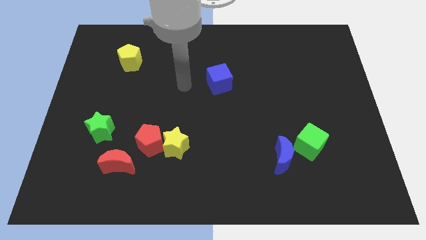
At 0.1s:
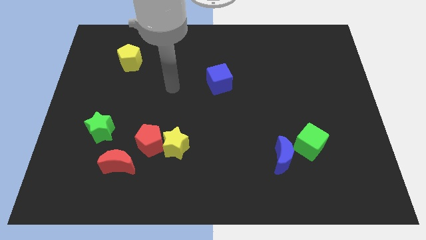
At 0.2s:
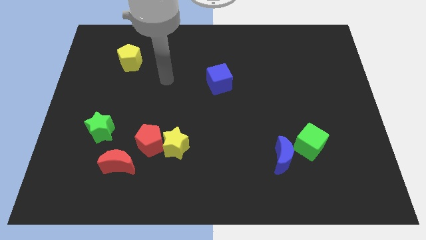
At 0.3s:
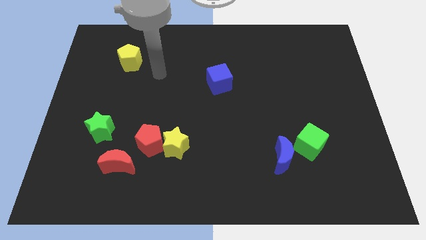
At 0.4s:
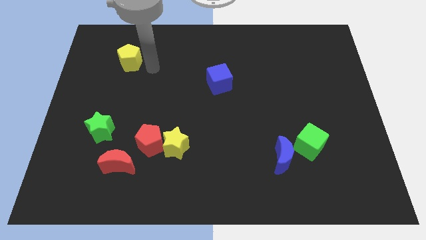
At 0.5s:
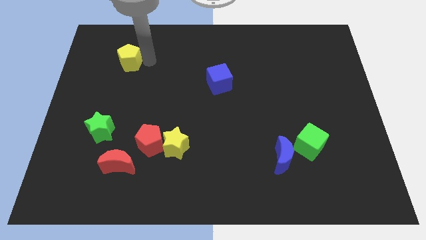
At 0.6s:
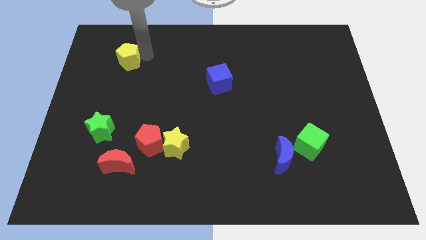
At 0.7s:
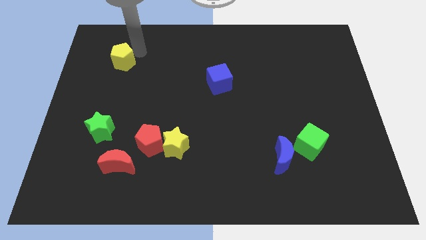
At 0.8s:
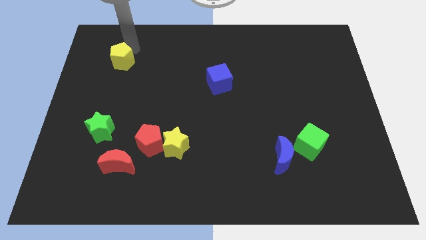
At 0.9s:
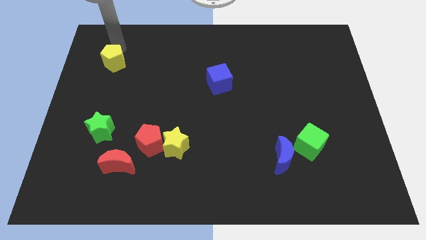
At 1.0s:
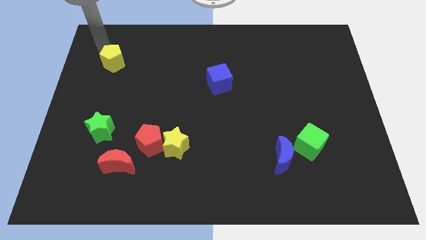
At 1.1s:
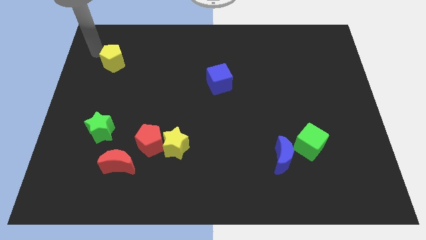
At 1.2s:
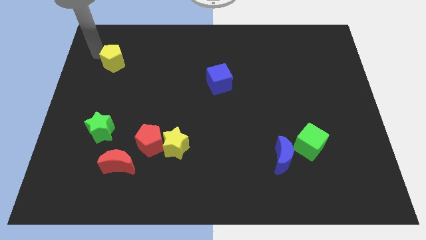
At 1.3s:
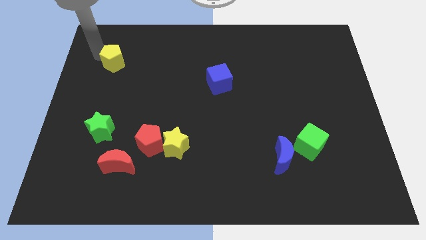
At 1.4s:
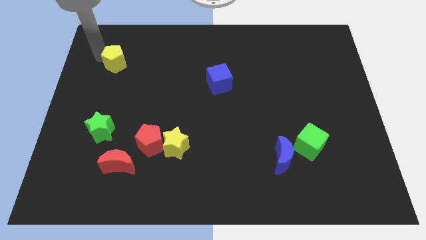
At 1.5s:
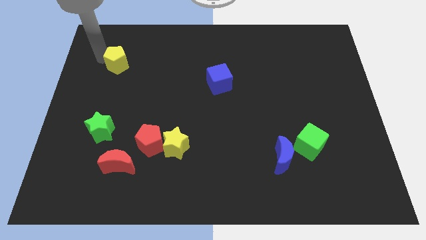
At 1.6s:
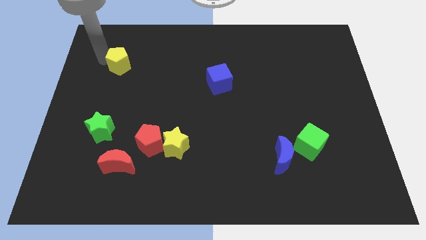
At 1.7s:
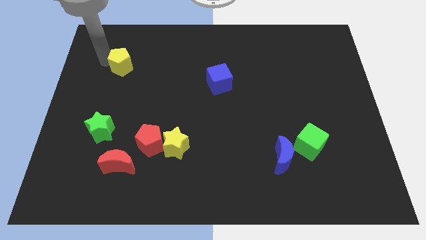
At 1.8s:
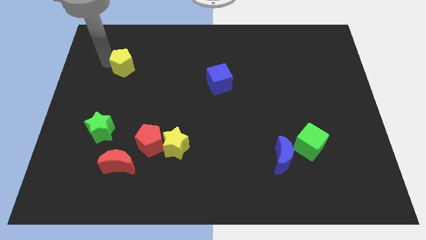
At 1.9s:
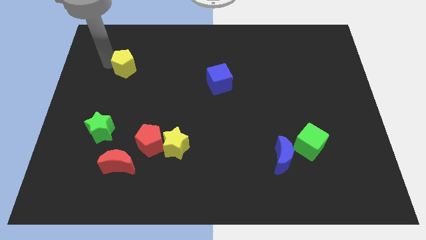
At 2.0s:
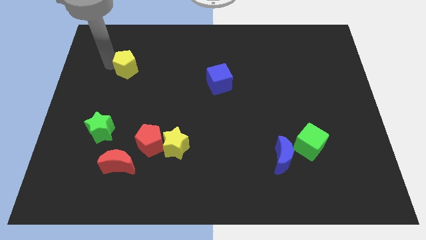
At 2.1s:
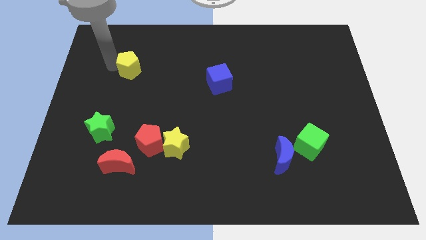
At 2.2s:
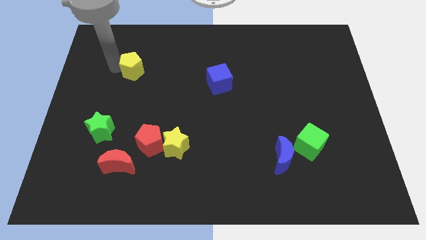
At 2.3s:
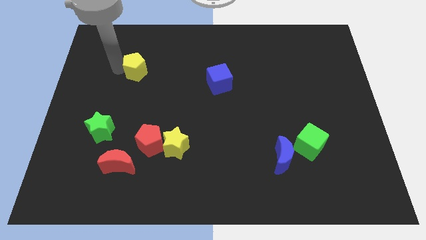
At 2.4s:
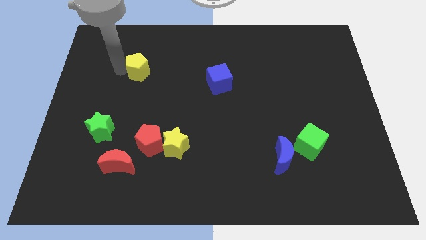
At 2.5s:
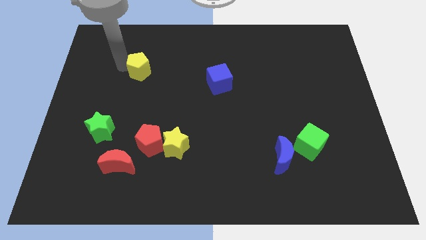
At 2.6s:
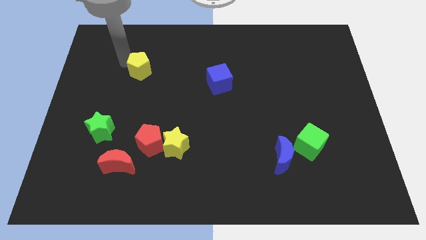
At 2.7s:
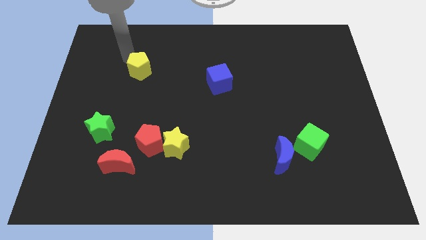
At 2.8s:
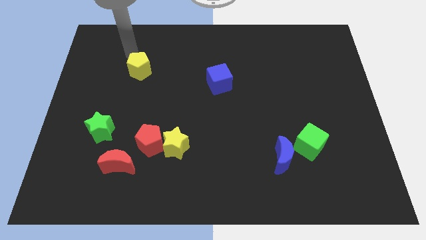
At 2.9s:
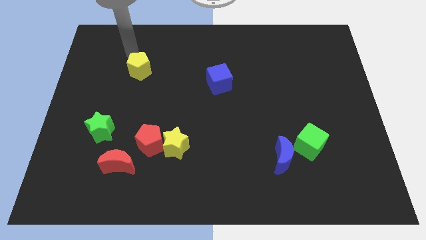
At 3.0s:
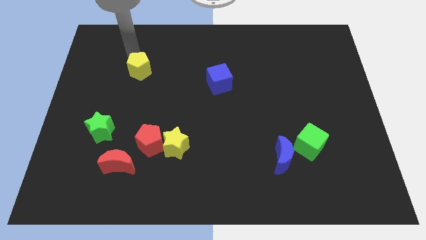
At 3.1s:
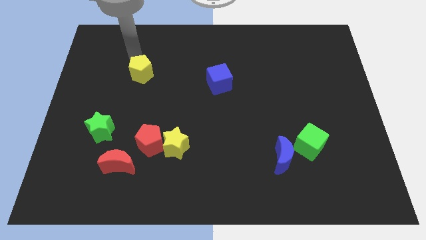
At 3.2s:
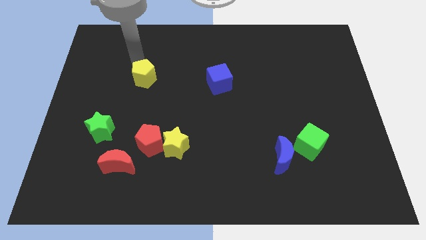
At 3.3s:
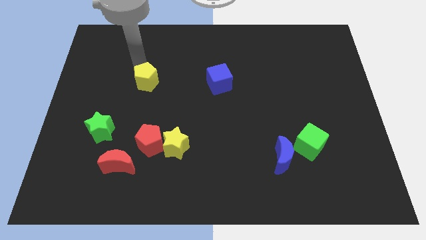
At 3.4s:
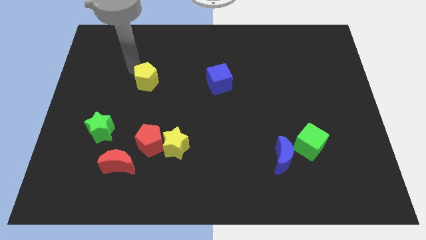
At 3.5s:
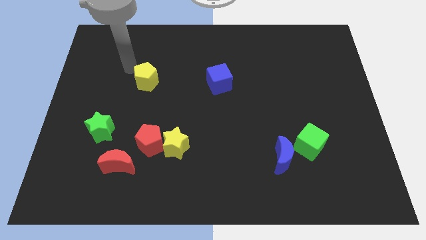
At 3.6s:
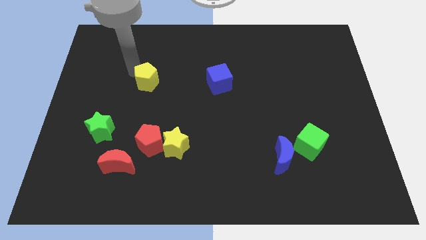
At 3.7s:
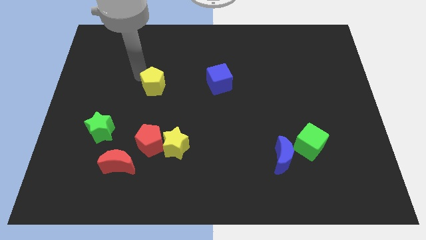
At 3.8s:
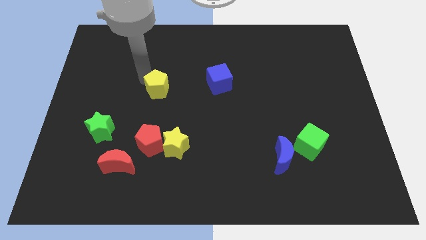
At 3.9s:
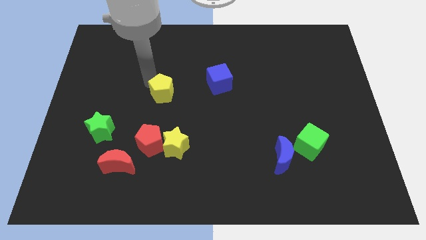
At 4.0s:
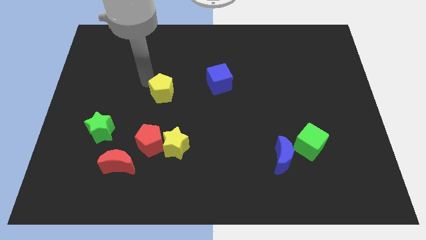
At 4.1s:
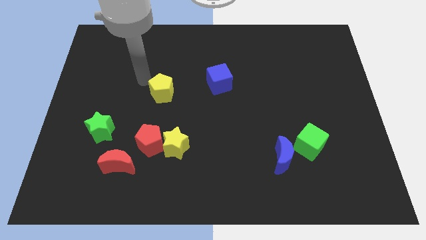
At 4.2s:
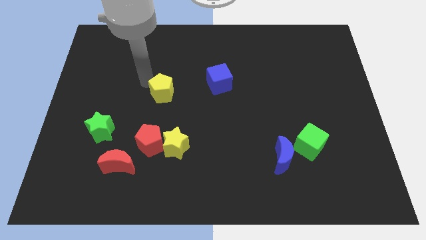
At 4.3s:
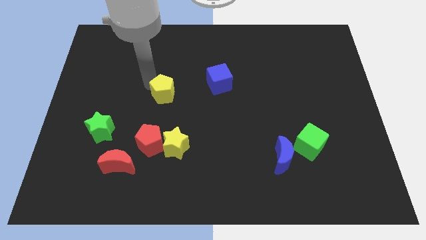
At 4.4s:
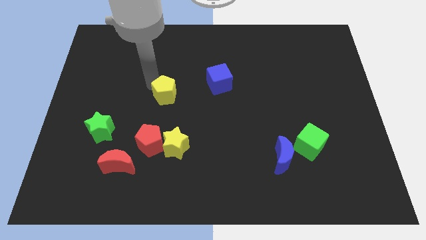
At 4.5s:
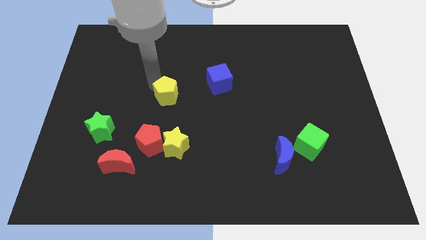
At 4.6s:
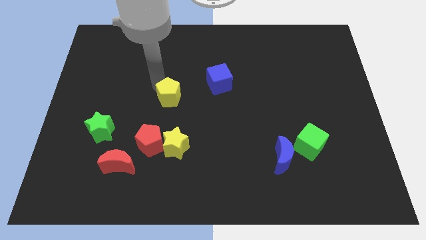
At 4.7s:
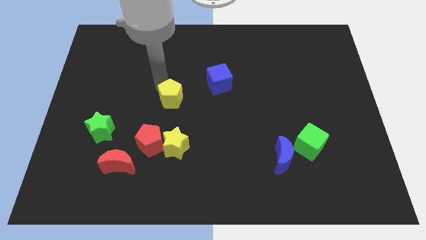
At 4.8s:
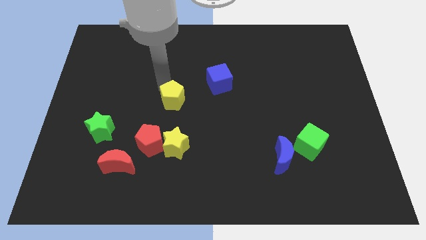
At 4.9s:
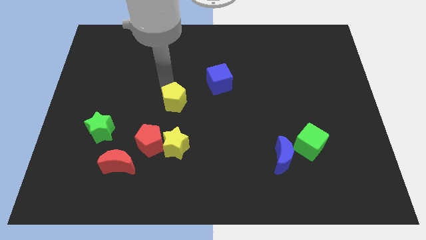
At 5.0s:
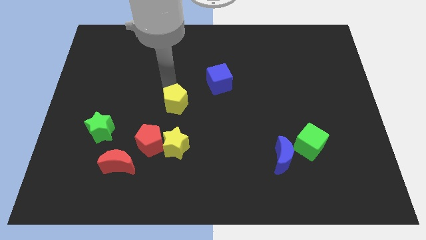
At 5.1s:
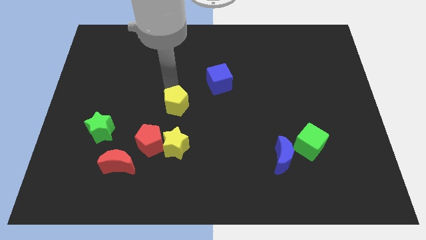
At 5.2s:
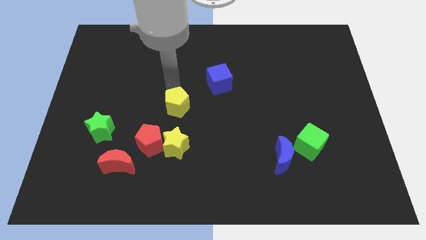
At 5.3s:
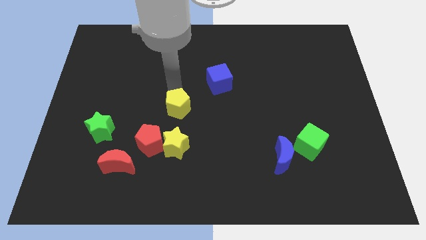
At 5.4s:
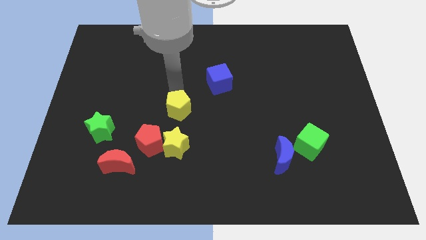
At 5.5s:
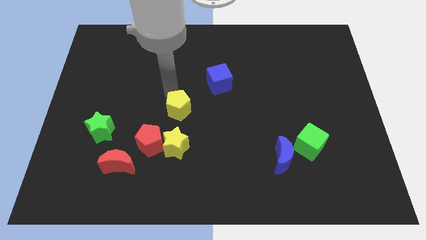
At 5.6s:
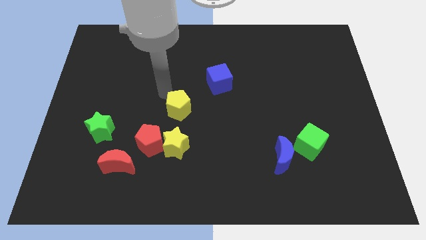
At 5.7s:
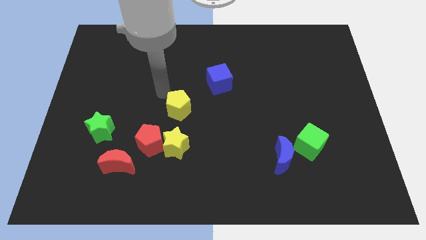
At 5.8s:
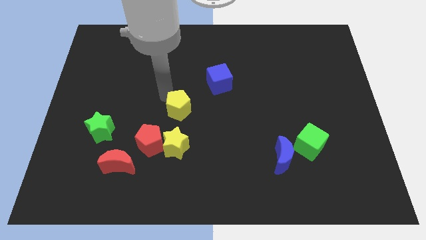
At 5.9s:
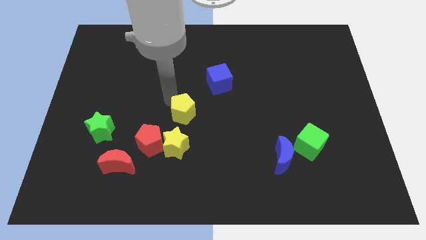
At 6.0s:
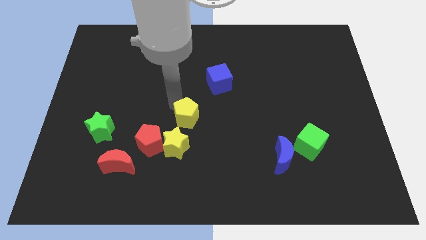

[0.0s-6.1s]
move the yellow pentagon to the top right of the yellow star
